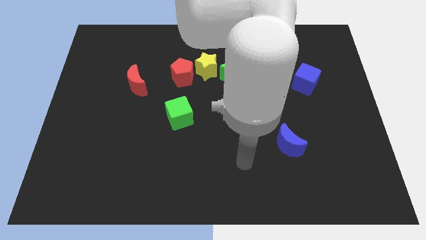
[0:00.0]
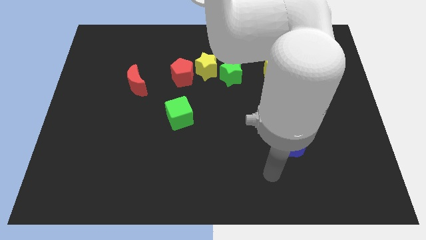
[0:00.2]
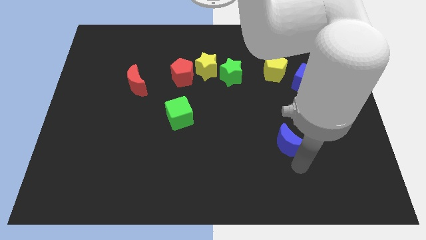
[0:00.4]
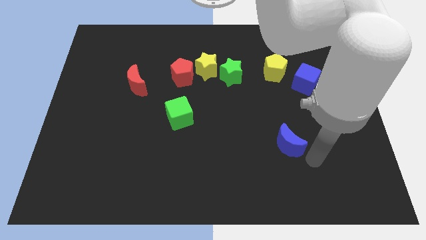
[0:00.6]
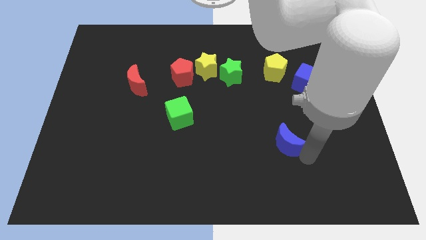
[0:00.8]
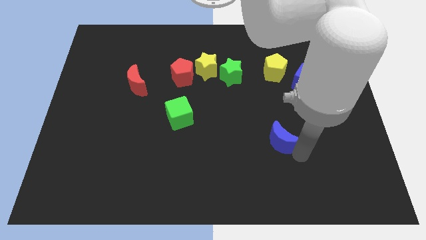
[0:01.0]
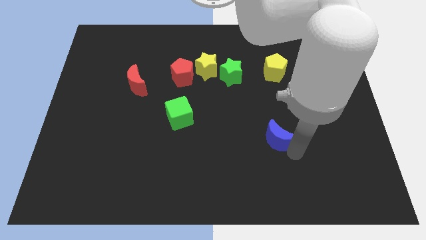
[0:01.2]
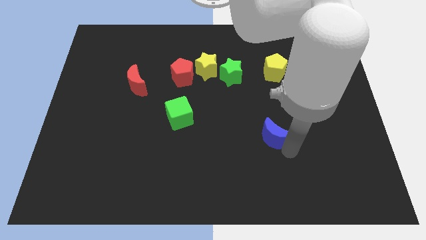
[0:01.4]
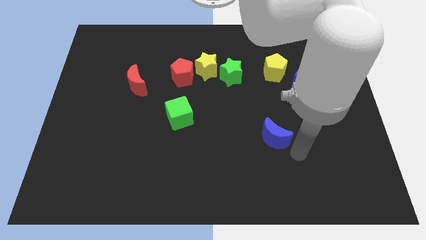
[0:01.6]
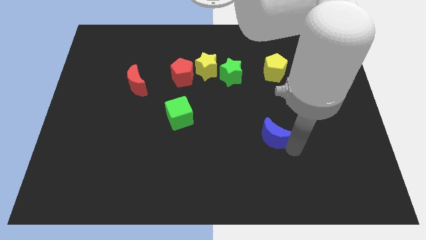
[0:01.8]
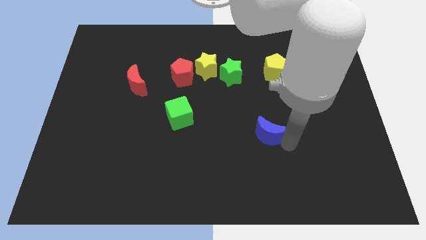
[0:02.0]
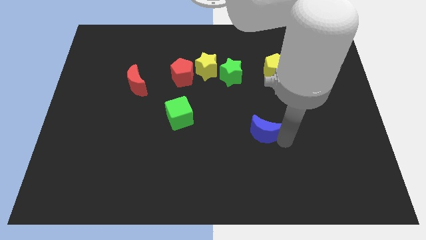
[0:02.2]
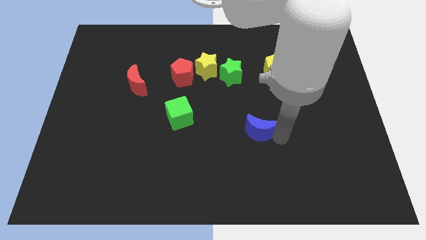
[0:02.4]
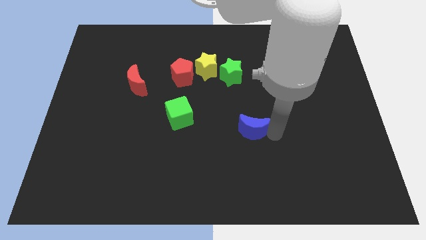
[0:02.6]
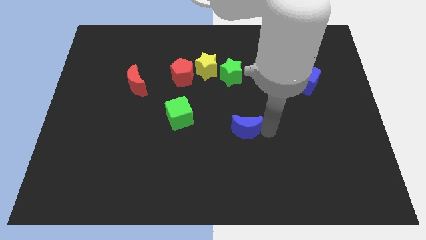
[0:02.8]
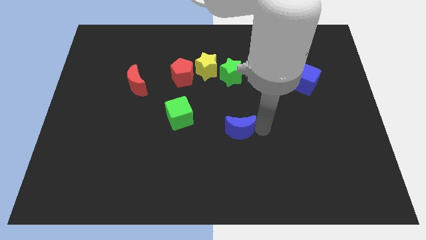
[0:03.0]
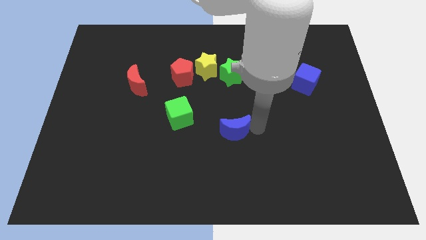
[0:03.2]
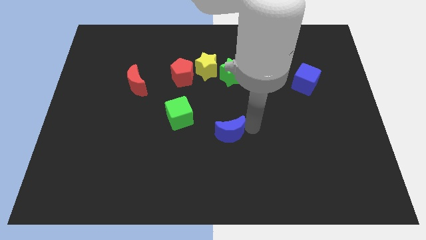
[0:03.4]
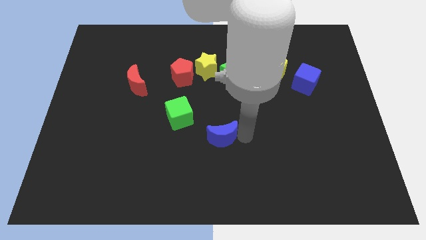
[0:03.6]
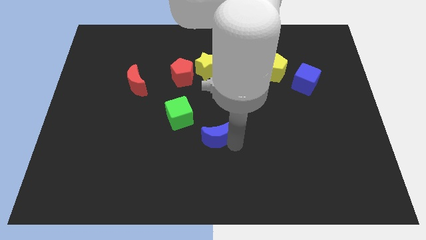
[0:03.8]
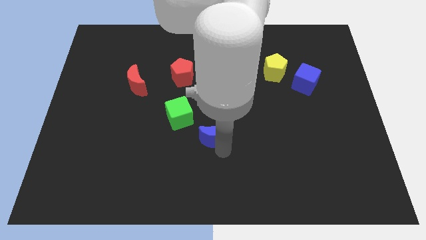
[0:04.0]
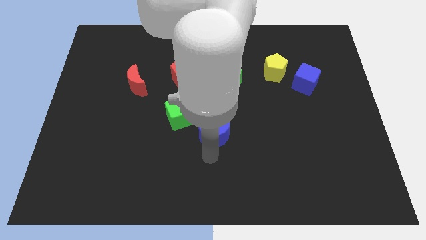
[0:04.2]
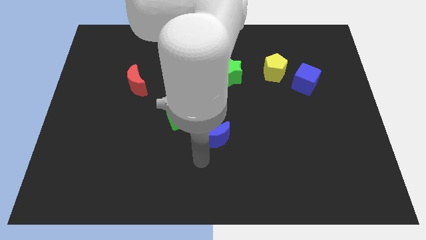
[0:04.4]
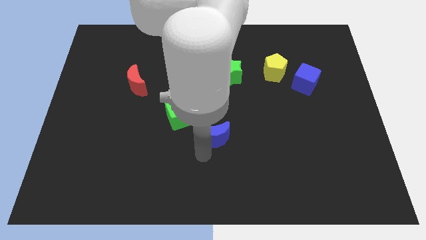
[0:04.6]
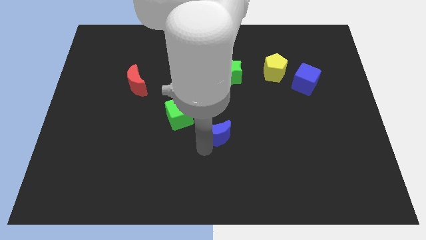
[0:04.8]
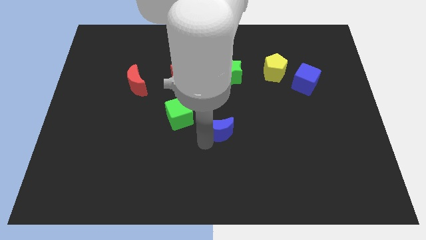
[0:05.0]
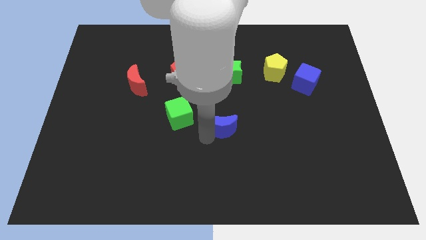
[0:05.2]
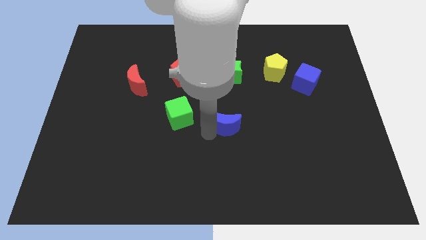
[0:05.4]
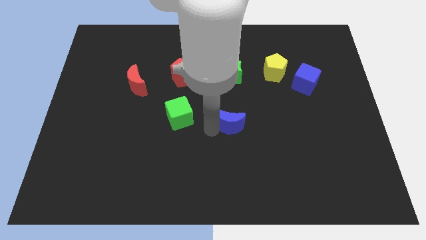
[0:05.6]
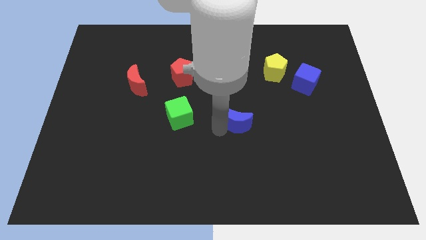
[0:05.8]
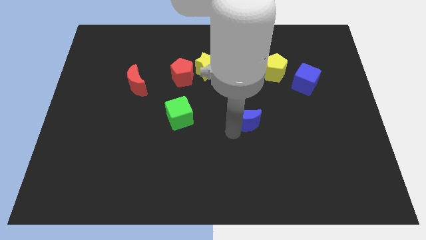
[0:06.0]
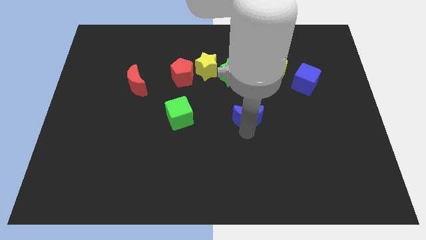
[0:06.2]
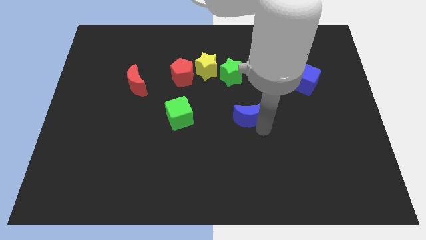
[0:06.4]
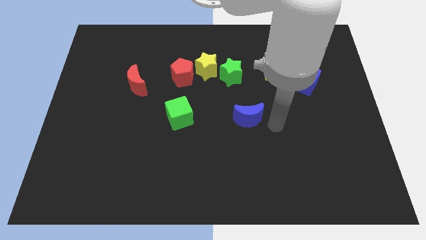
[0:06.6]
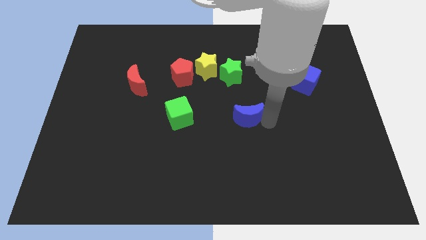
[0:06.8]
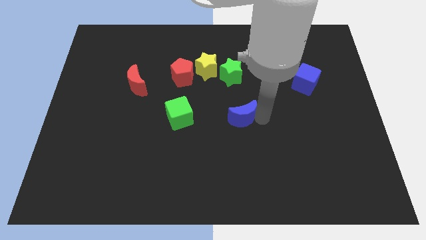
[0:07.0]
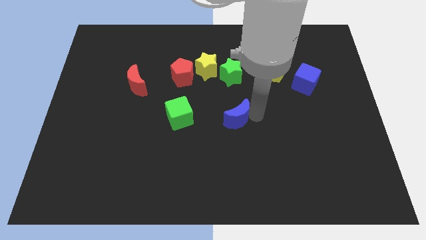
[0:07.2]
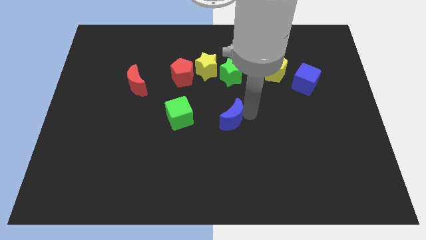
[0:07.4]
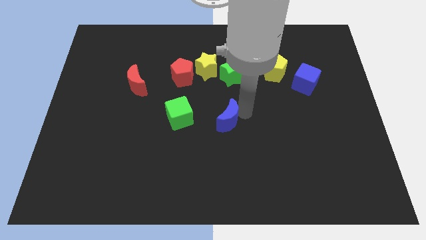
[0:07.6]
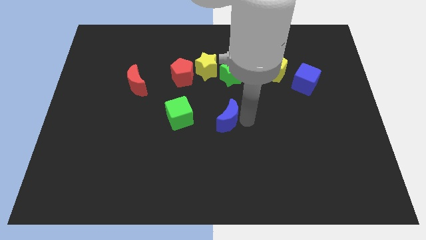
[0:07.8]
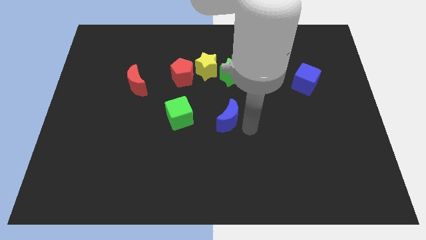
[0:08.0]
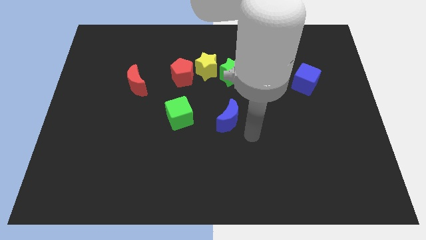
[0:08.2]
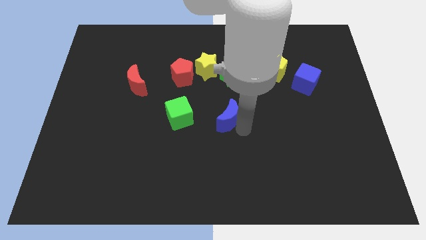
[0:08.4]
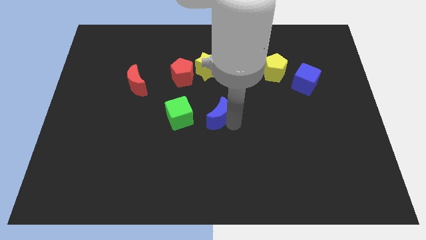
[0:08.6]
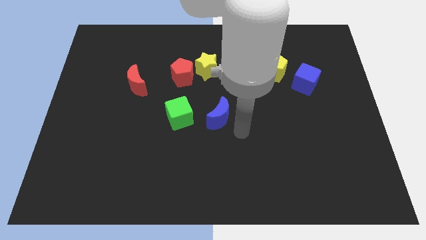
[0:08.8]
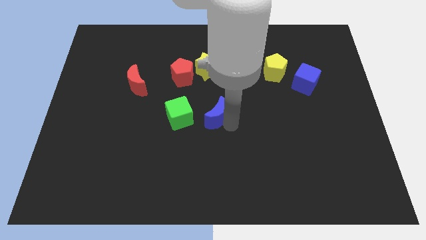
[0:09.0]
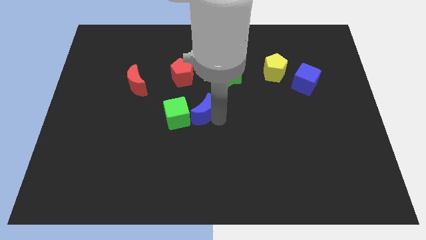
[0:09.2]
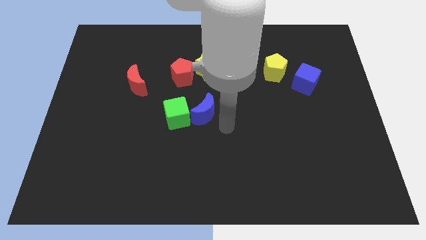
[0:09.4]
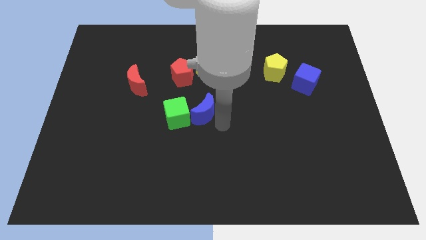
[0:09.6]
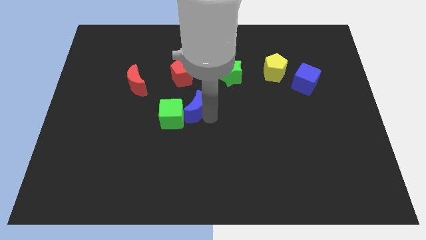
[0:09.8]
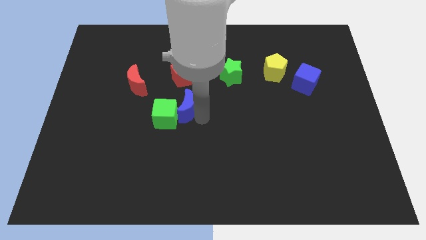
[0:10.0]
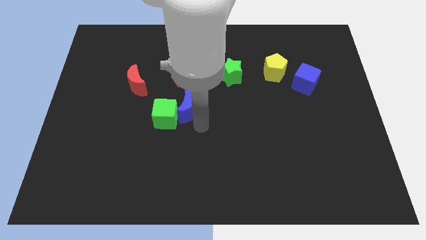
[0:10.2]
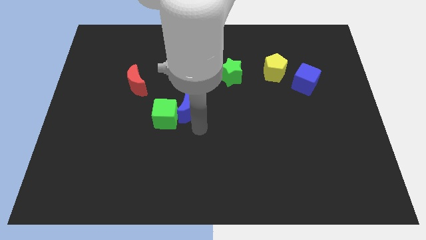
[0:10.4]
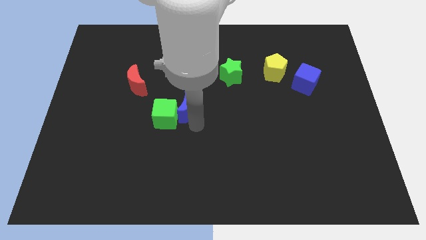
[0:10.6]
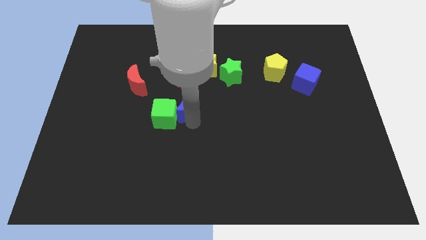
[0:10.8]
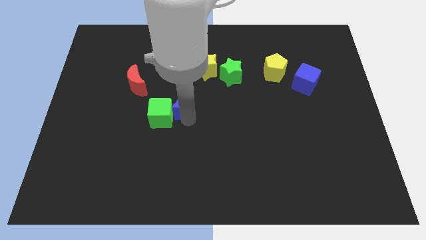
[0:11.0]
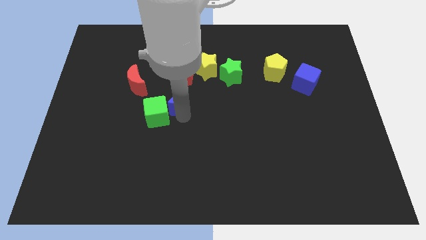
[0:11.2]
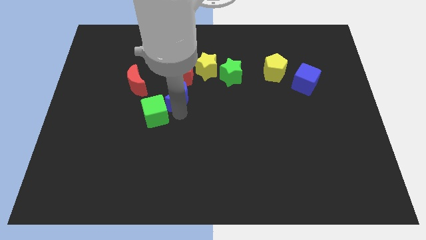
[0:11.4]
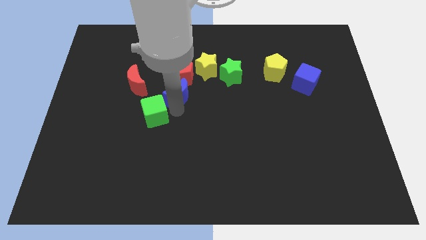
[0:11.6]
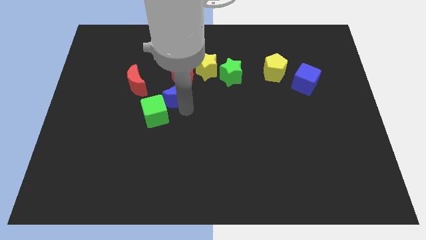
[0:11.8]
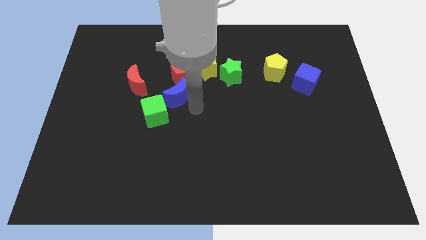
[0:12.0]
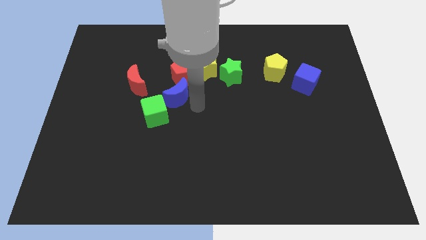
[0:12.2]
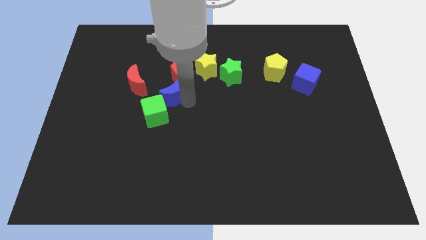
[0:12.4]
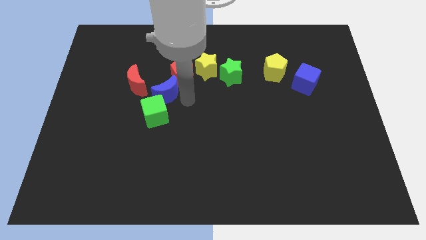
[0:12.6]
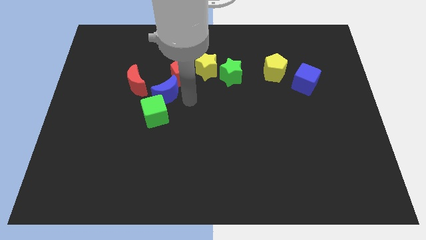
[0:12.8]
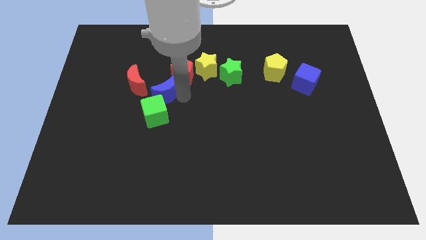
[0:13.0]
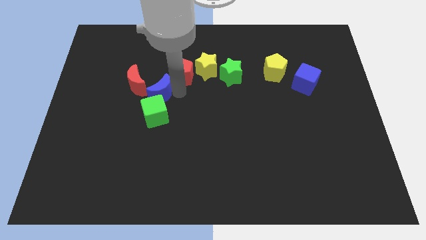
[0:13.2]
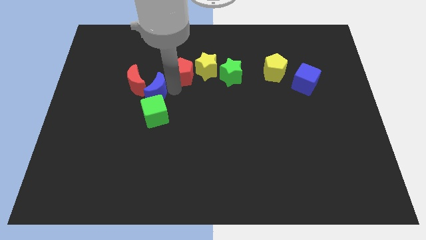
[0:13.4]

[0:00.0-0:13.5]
move the blue moon close to the red moon

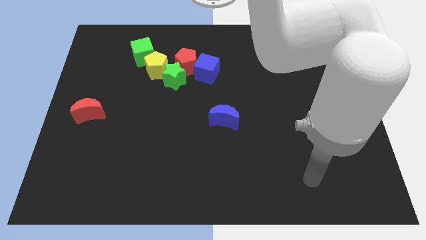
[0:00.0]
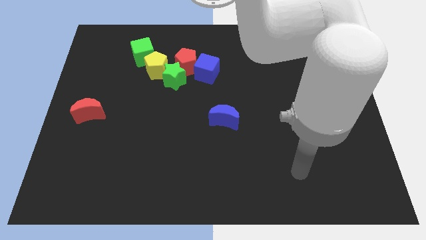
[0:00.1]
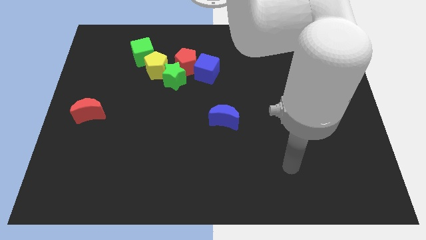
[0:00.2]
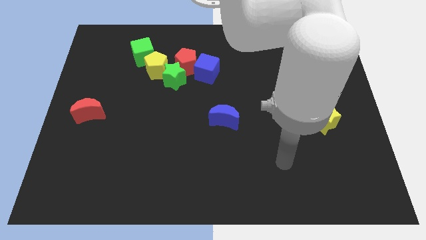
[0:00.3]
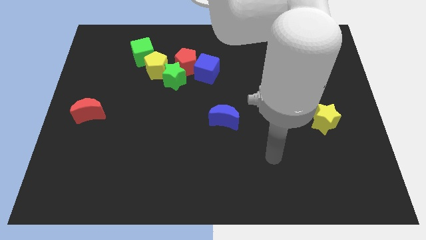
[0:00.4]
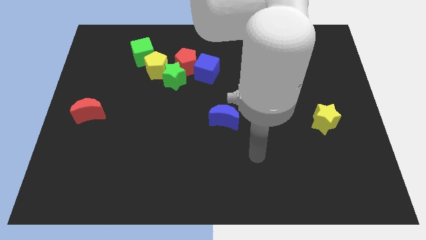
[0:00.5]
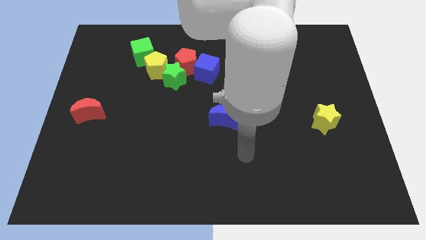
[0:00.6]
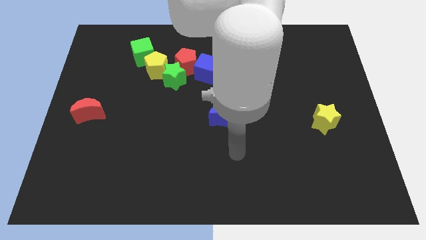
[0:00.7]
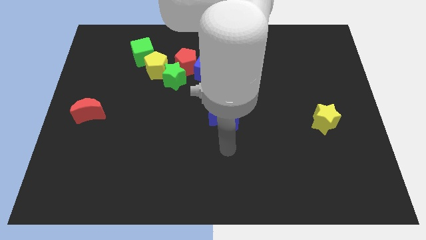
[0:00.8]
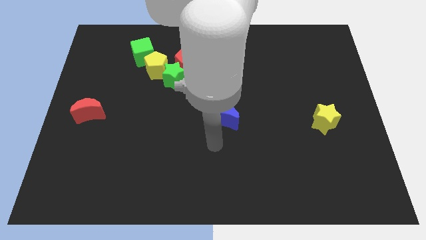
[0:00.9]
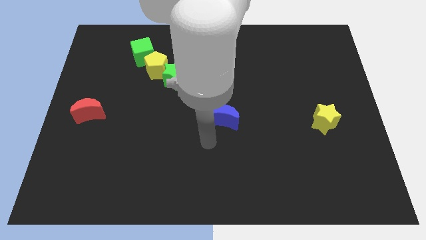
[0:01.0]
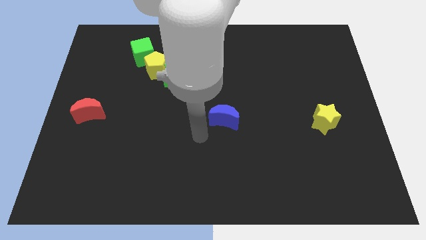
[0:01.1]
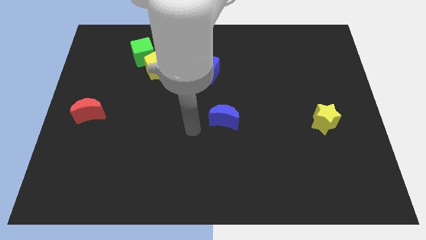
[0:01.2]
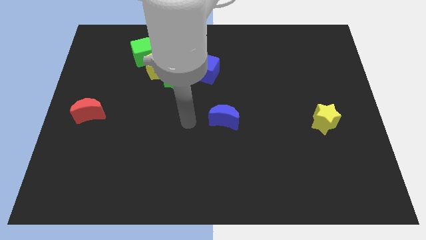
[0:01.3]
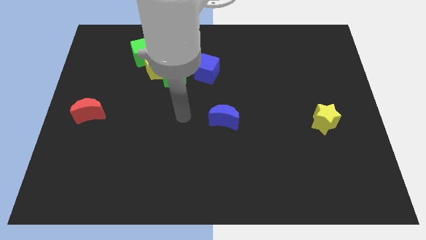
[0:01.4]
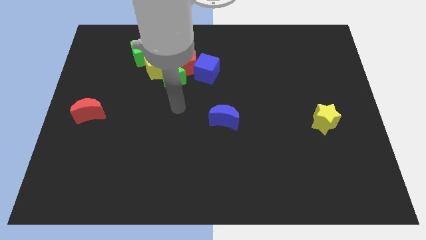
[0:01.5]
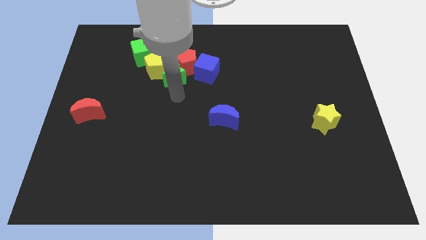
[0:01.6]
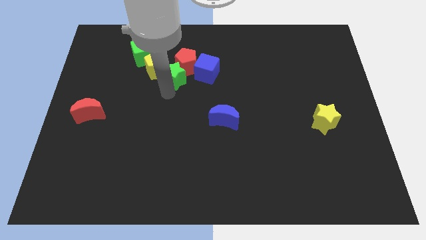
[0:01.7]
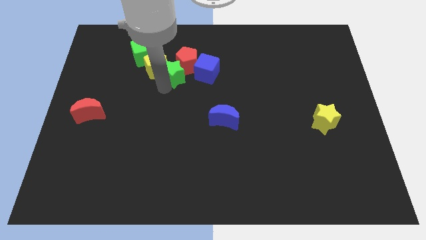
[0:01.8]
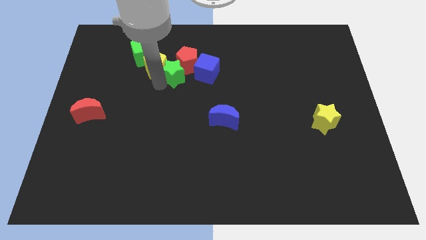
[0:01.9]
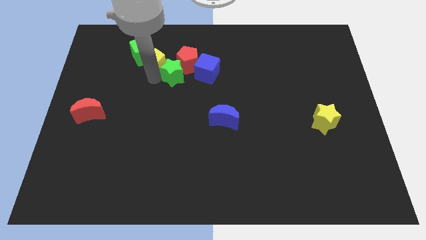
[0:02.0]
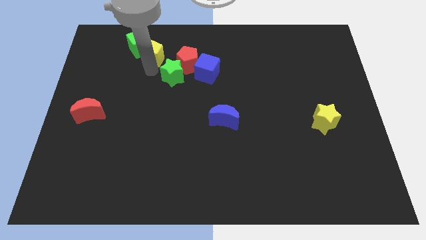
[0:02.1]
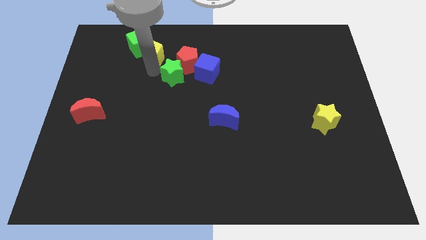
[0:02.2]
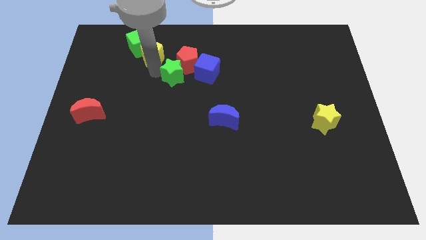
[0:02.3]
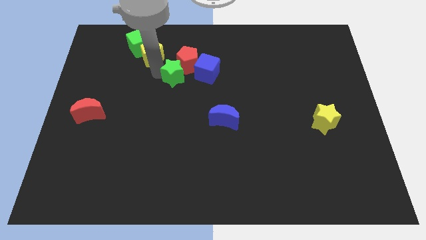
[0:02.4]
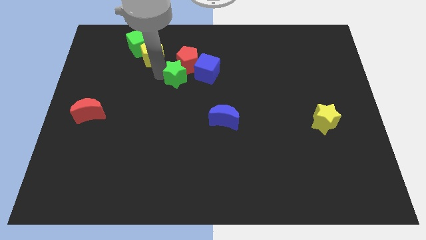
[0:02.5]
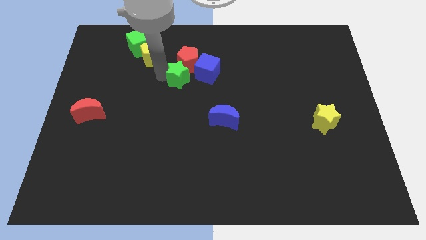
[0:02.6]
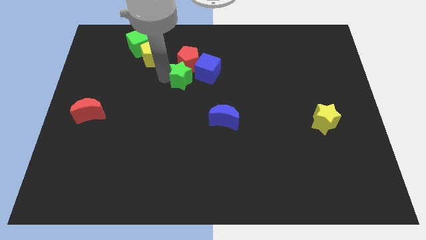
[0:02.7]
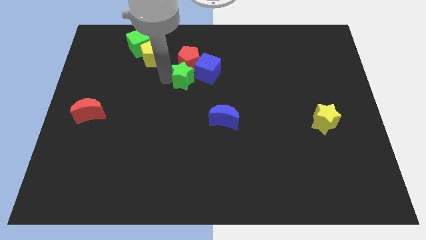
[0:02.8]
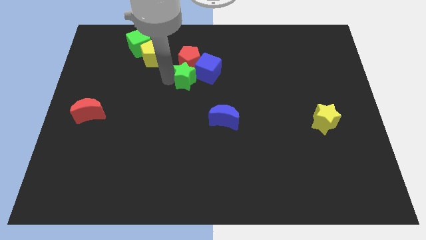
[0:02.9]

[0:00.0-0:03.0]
move the green star towards the blue cube
